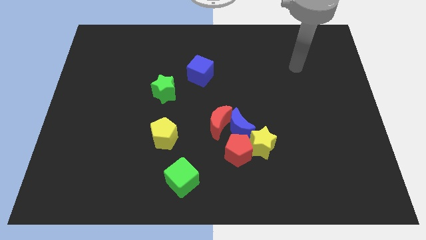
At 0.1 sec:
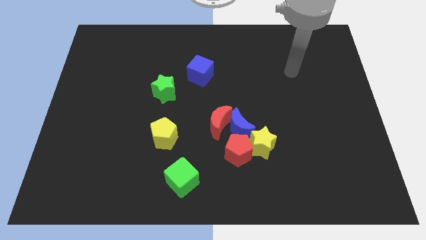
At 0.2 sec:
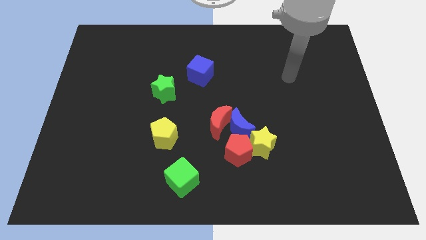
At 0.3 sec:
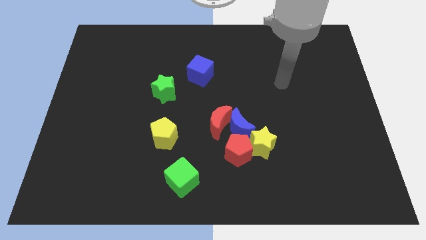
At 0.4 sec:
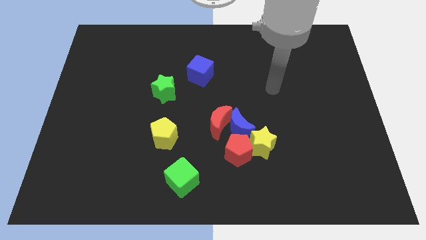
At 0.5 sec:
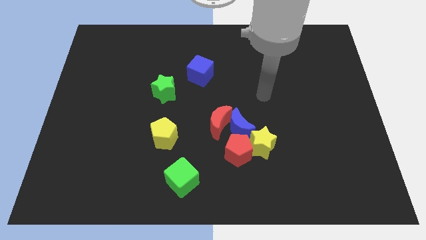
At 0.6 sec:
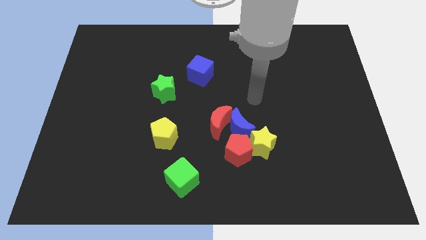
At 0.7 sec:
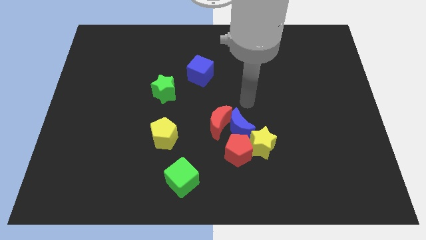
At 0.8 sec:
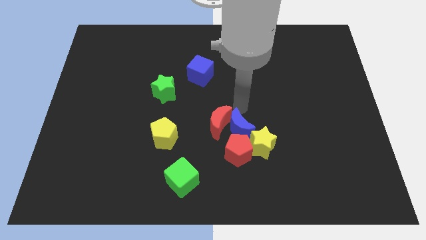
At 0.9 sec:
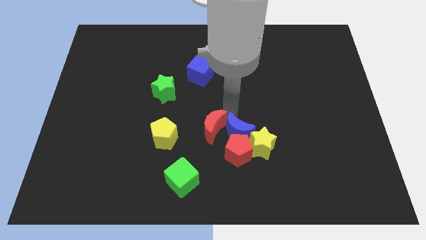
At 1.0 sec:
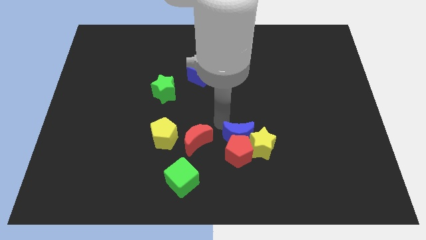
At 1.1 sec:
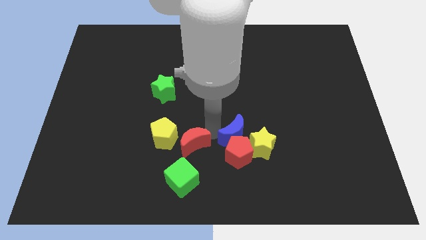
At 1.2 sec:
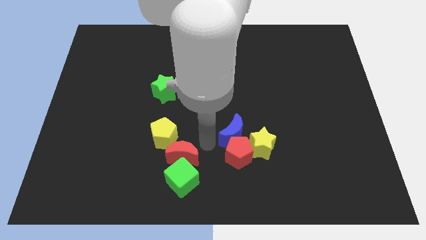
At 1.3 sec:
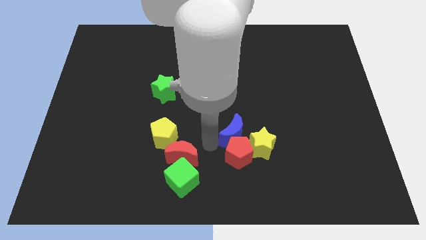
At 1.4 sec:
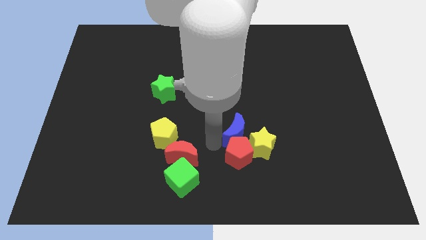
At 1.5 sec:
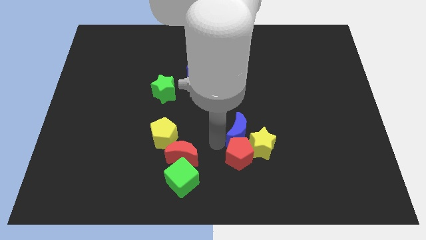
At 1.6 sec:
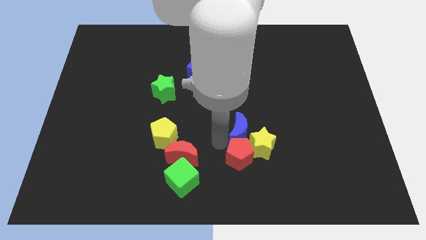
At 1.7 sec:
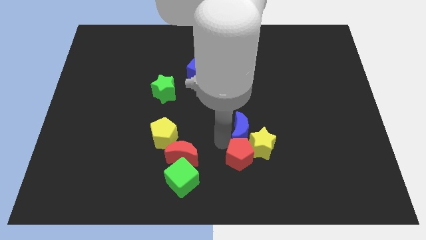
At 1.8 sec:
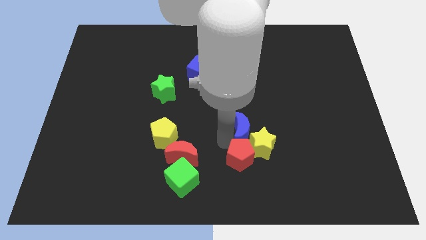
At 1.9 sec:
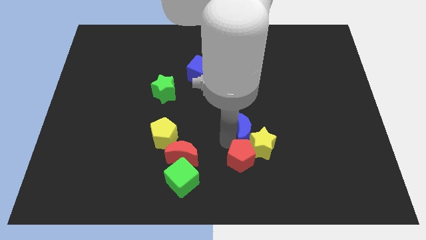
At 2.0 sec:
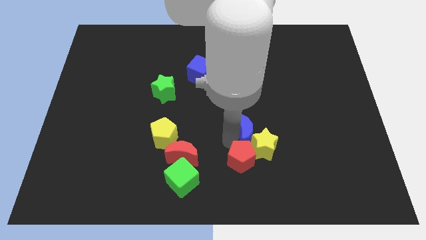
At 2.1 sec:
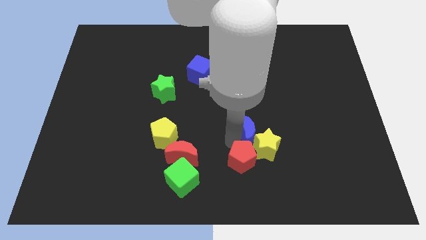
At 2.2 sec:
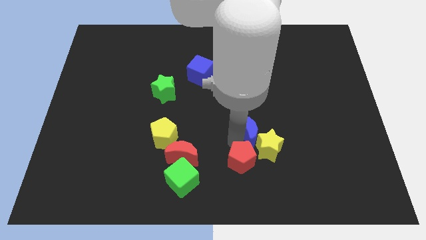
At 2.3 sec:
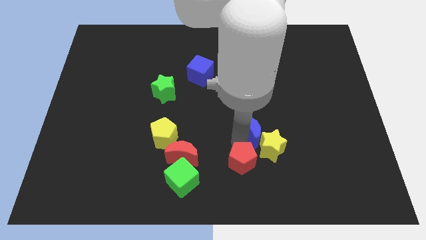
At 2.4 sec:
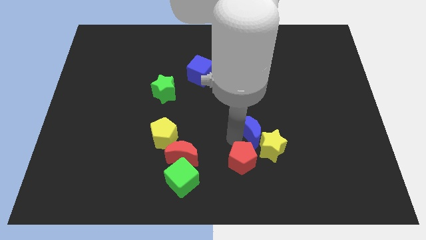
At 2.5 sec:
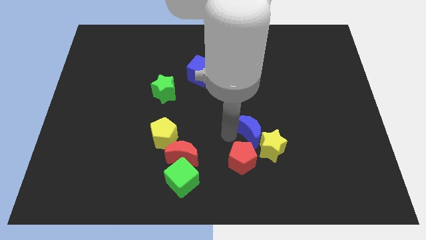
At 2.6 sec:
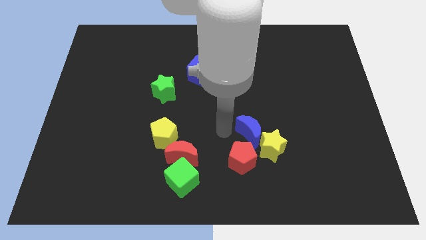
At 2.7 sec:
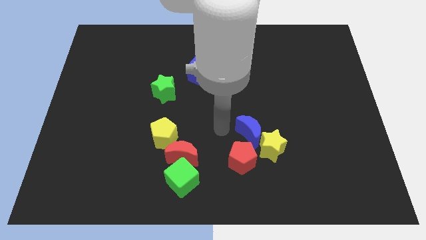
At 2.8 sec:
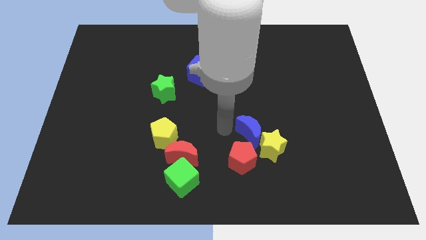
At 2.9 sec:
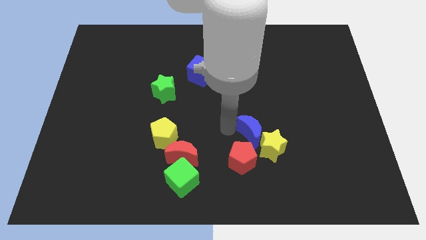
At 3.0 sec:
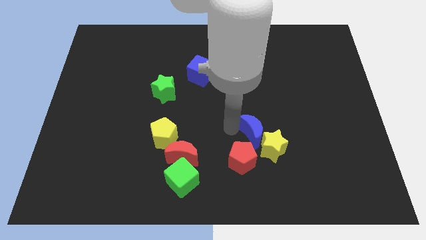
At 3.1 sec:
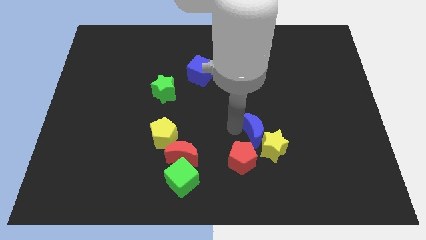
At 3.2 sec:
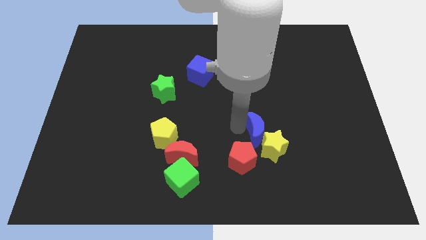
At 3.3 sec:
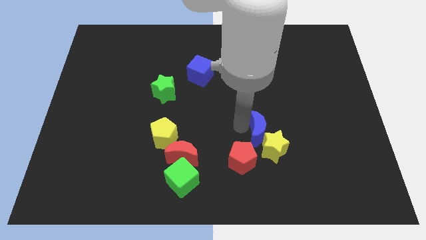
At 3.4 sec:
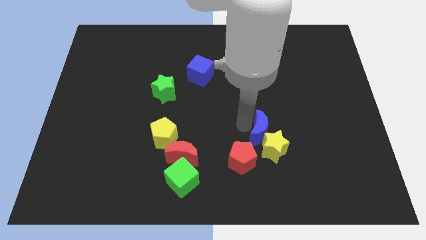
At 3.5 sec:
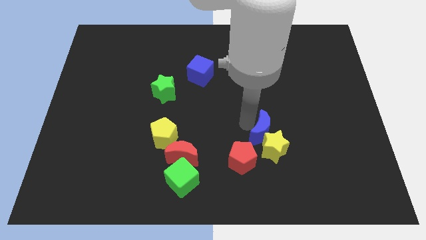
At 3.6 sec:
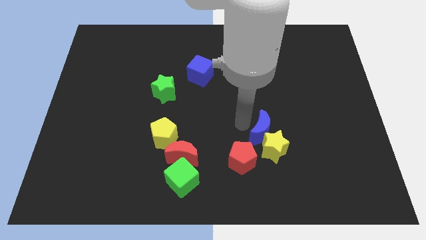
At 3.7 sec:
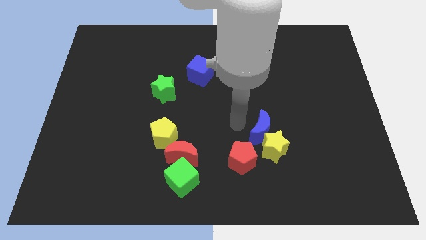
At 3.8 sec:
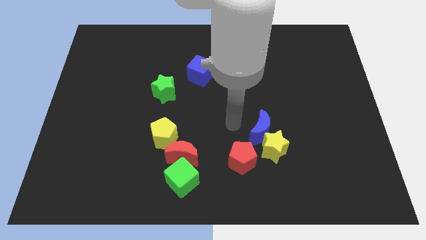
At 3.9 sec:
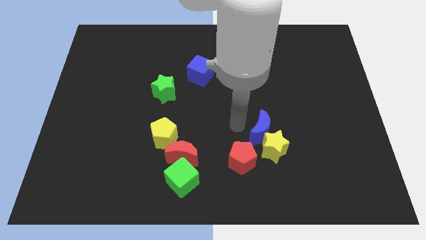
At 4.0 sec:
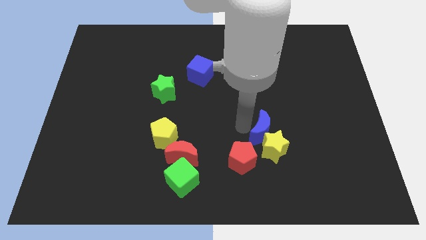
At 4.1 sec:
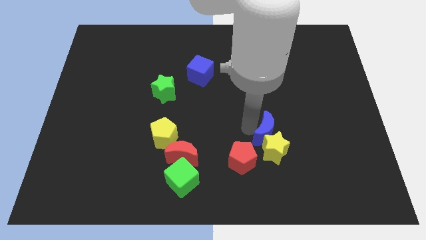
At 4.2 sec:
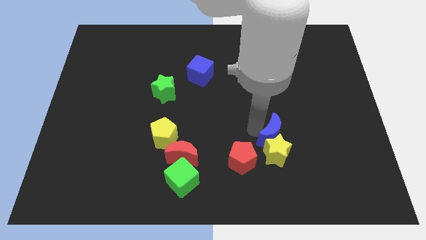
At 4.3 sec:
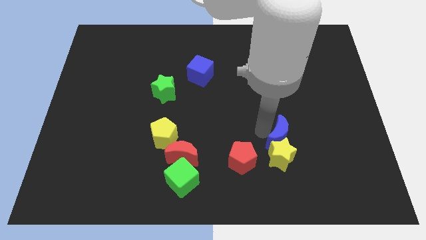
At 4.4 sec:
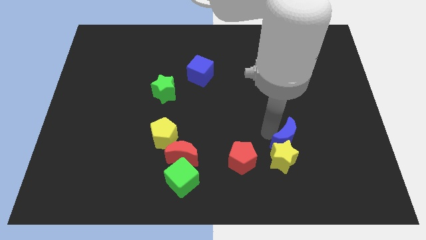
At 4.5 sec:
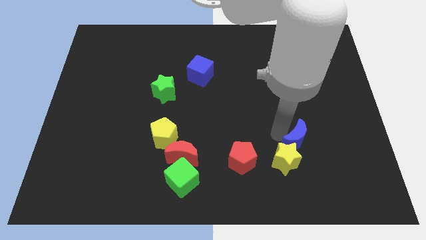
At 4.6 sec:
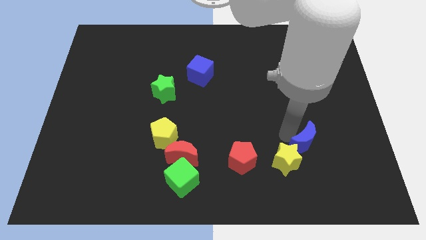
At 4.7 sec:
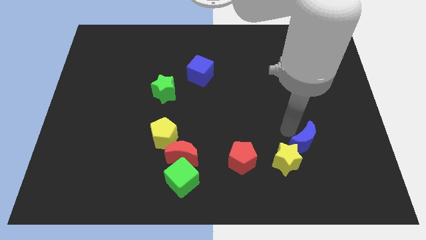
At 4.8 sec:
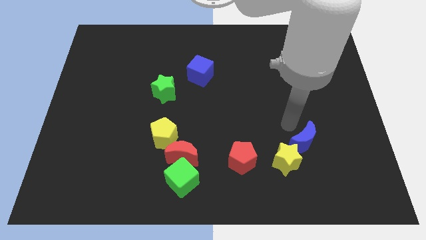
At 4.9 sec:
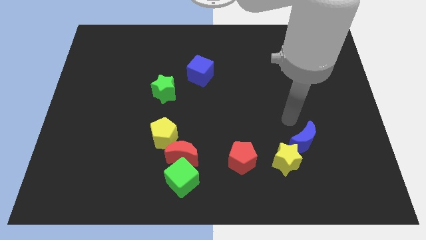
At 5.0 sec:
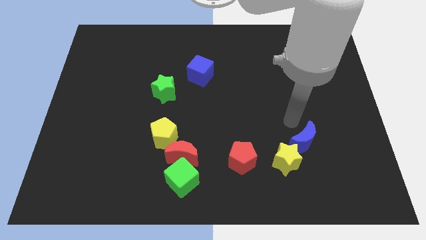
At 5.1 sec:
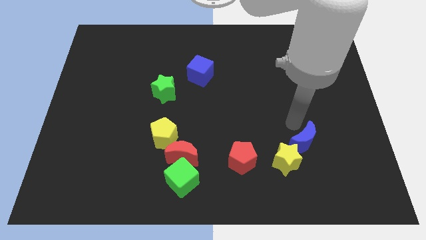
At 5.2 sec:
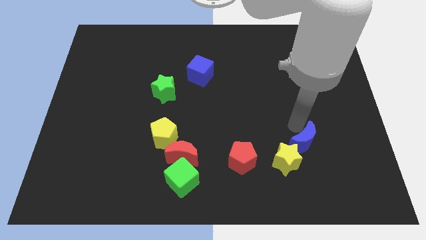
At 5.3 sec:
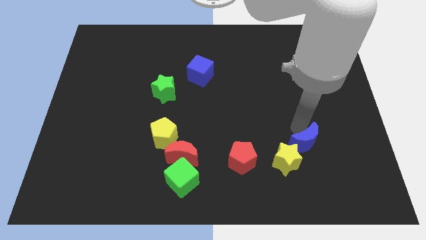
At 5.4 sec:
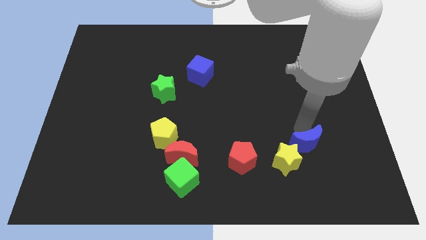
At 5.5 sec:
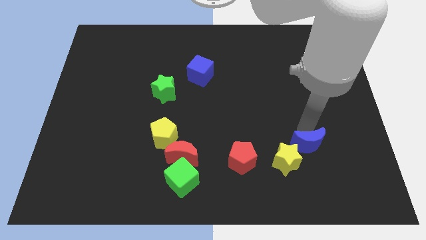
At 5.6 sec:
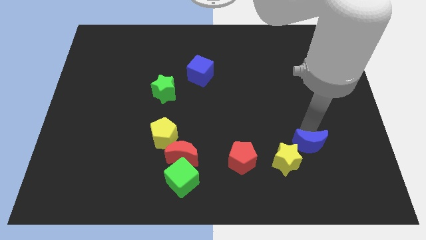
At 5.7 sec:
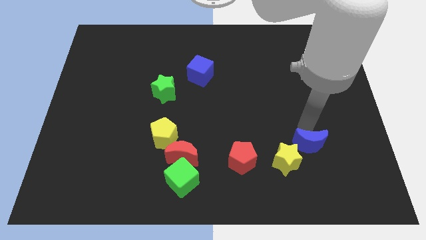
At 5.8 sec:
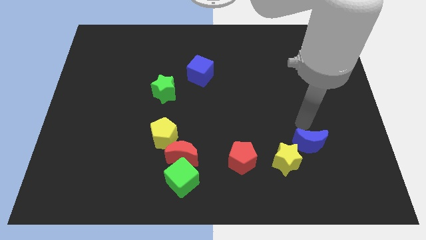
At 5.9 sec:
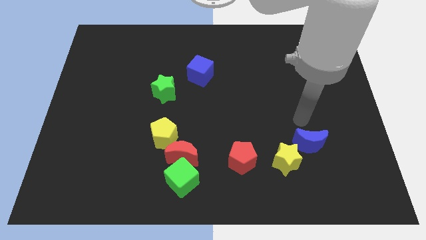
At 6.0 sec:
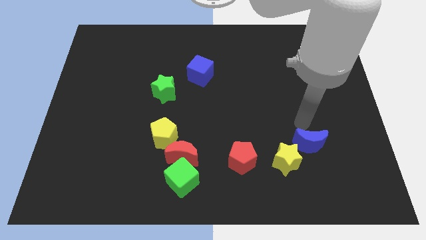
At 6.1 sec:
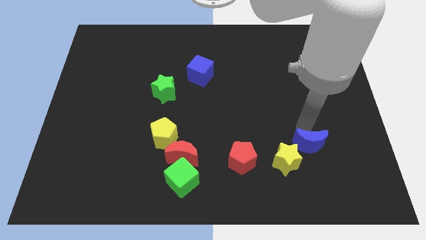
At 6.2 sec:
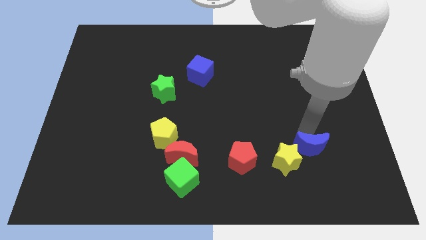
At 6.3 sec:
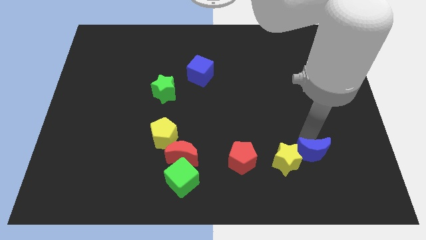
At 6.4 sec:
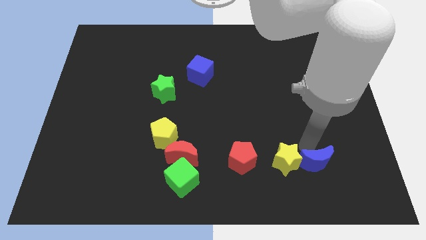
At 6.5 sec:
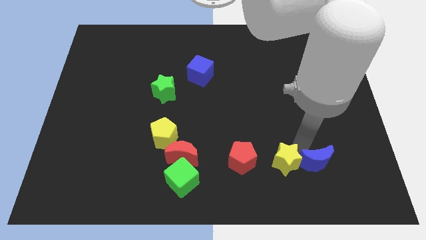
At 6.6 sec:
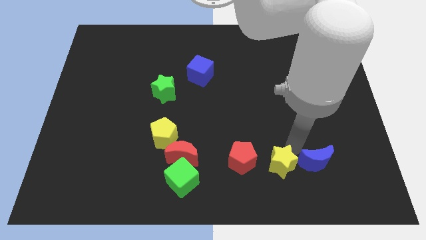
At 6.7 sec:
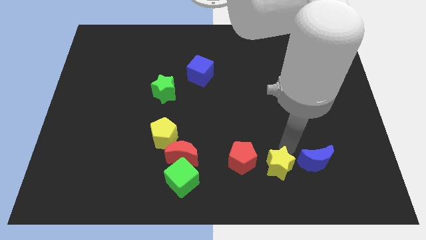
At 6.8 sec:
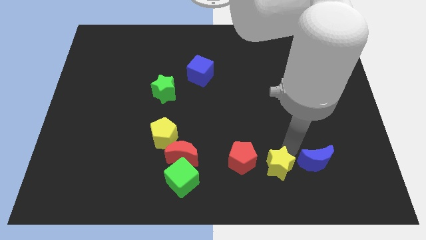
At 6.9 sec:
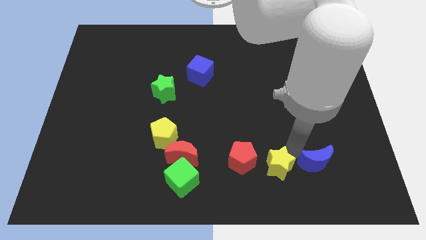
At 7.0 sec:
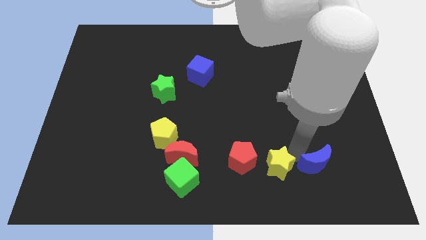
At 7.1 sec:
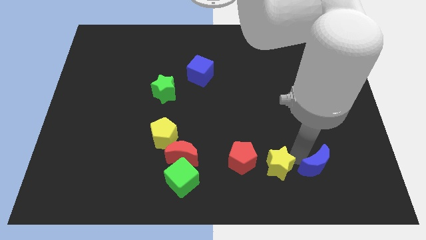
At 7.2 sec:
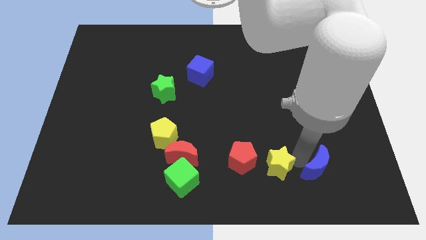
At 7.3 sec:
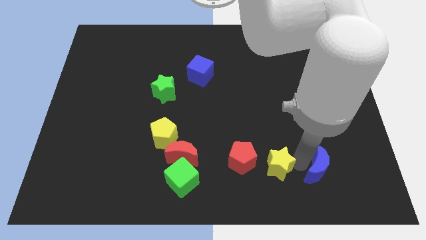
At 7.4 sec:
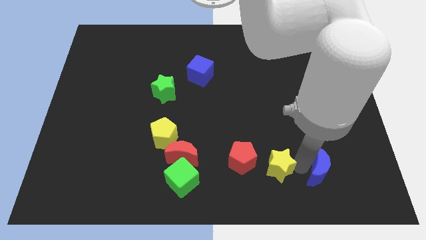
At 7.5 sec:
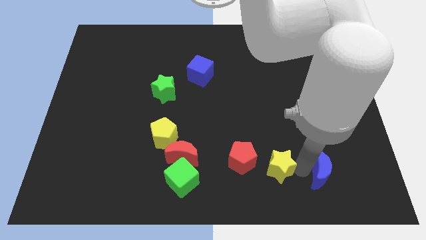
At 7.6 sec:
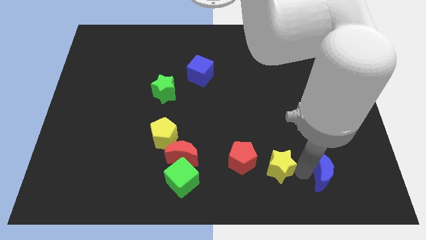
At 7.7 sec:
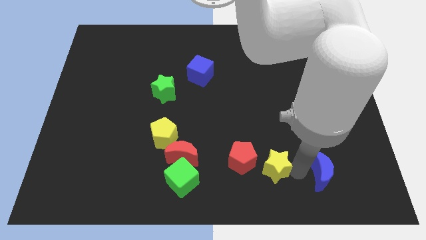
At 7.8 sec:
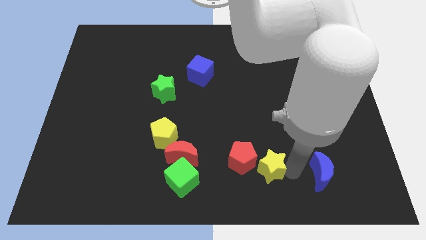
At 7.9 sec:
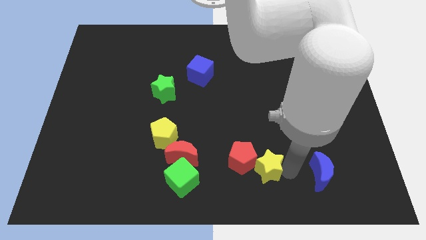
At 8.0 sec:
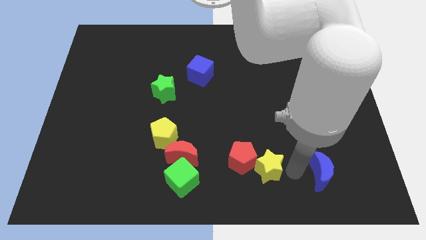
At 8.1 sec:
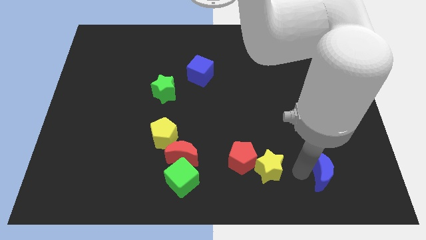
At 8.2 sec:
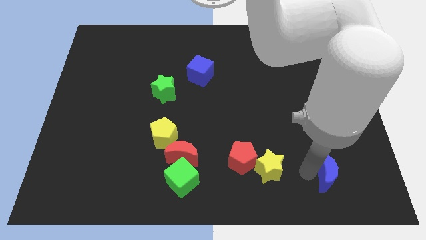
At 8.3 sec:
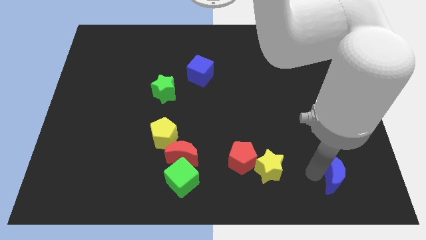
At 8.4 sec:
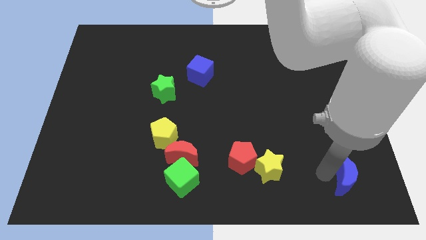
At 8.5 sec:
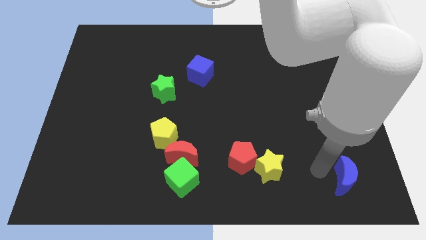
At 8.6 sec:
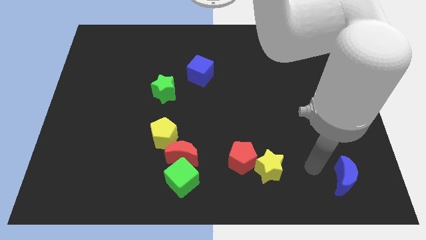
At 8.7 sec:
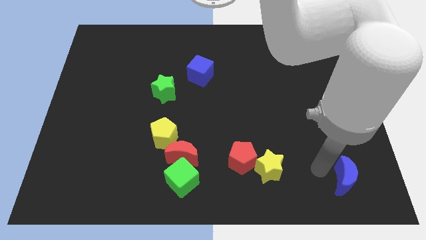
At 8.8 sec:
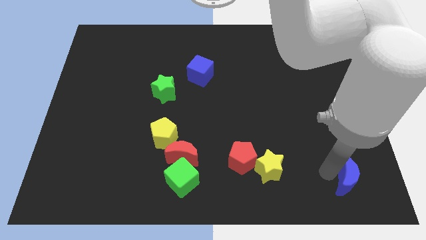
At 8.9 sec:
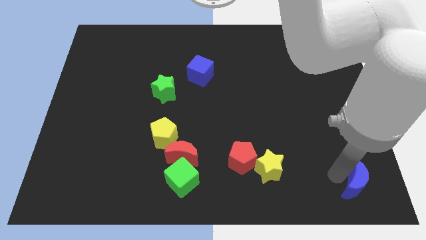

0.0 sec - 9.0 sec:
push the blue moon to the bottom right corner
